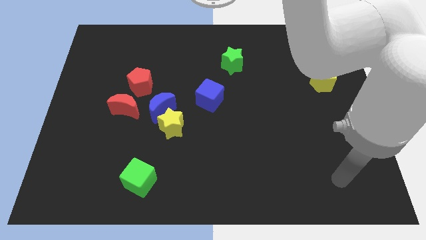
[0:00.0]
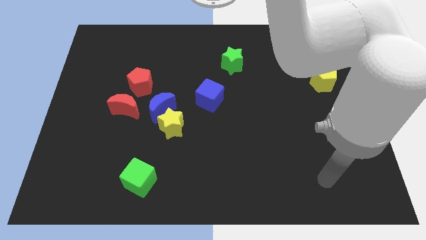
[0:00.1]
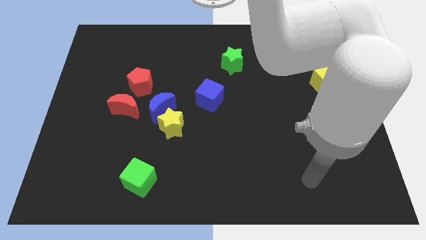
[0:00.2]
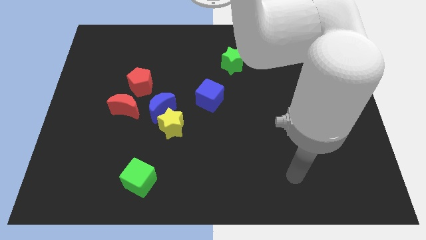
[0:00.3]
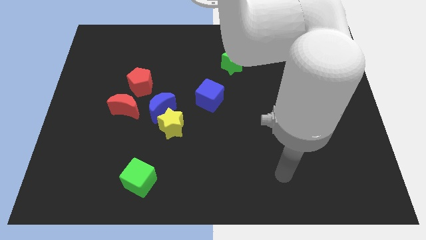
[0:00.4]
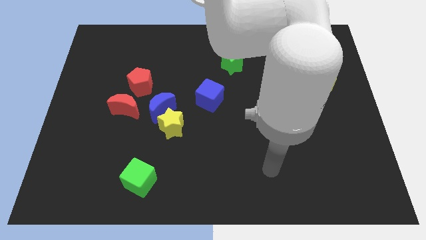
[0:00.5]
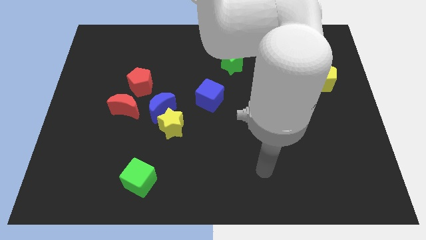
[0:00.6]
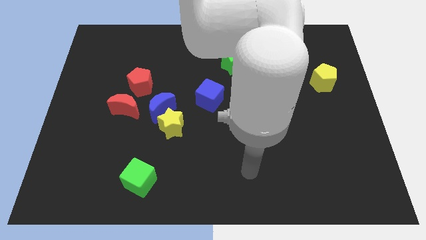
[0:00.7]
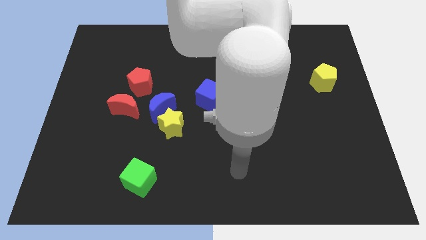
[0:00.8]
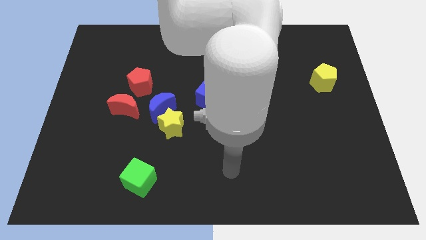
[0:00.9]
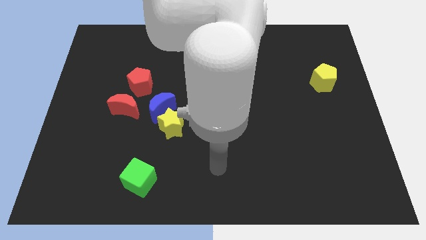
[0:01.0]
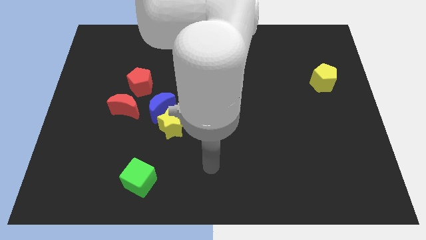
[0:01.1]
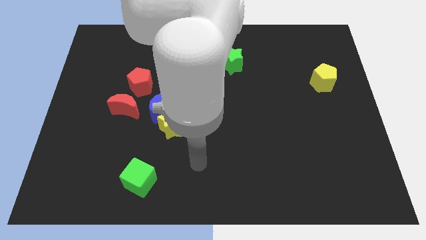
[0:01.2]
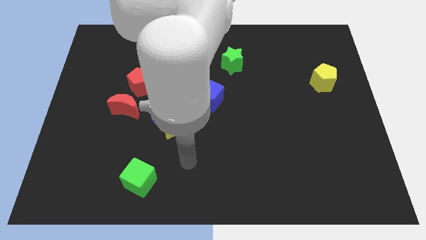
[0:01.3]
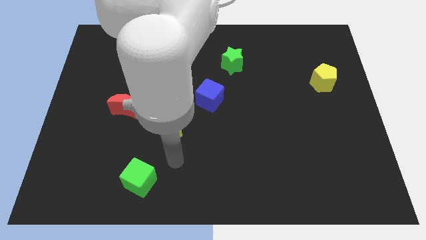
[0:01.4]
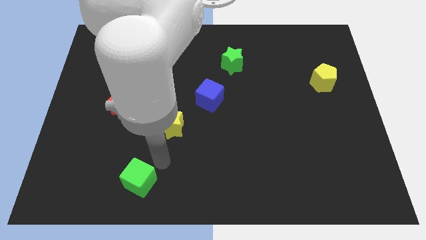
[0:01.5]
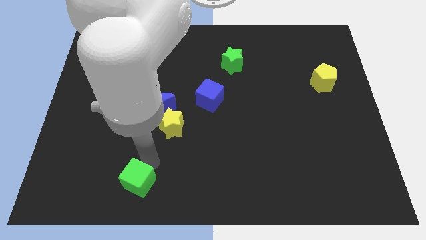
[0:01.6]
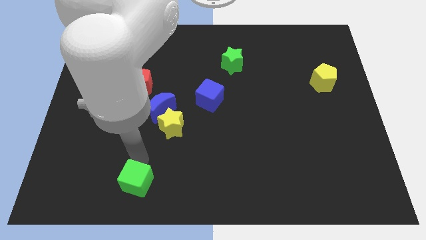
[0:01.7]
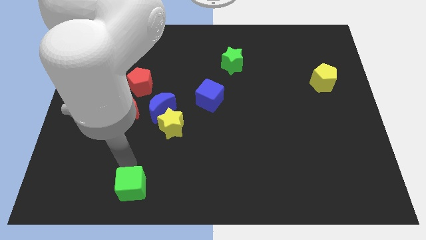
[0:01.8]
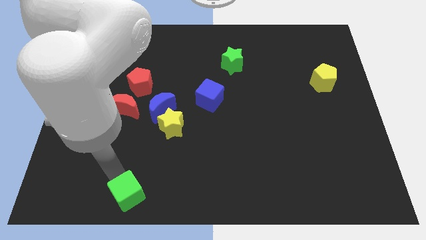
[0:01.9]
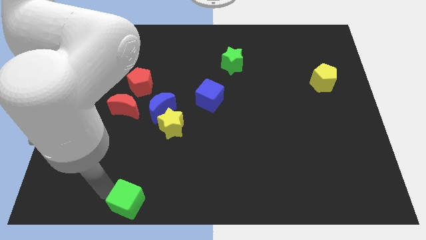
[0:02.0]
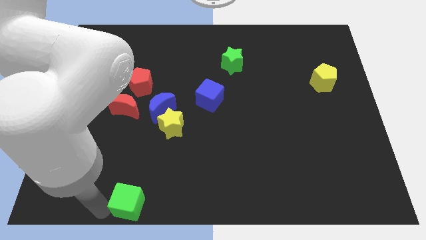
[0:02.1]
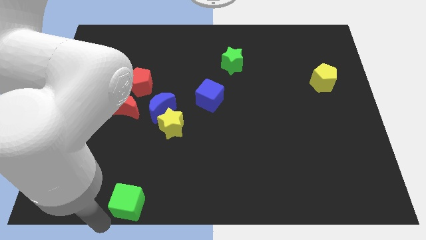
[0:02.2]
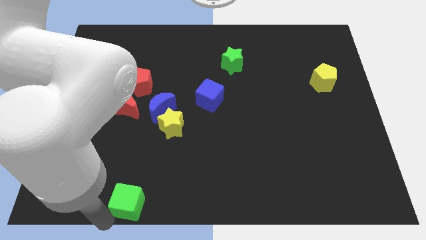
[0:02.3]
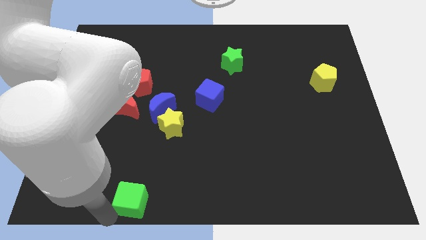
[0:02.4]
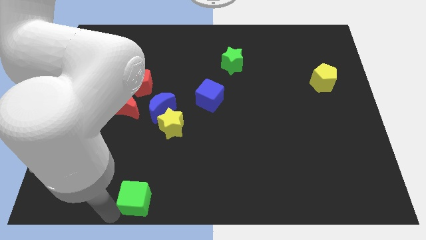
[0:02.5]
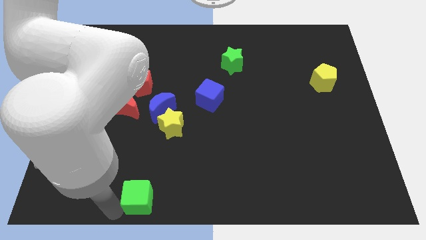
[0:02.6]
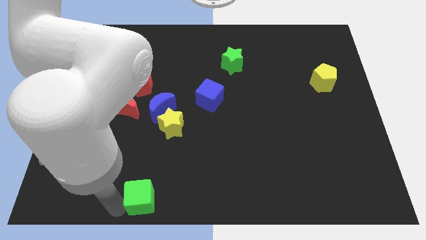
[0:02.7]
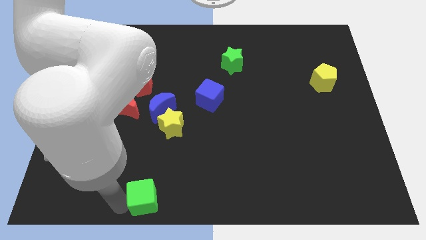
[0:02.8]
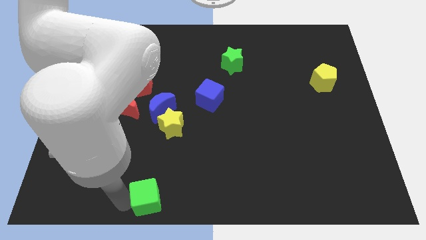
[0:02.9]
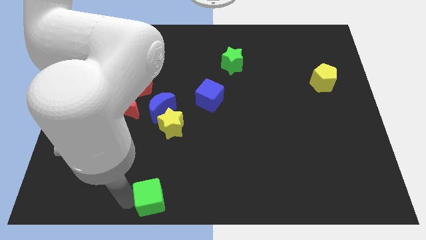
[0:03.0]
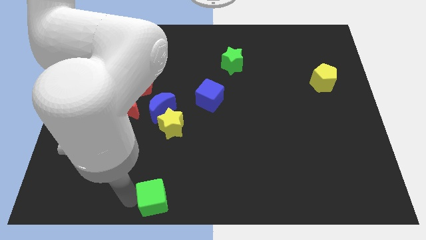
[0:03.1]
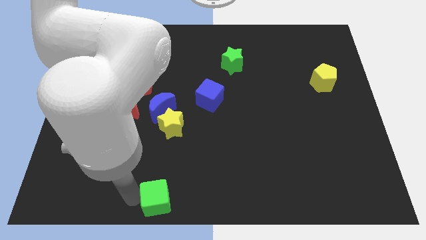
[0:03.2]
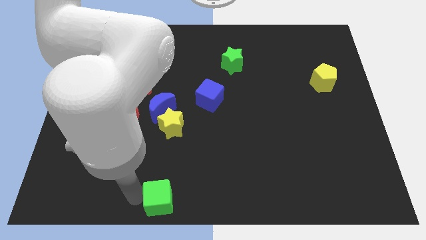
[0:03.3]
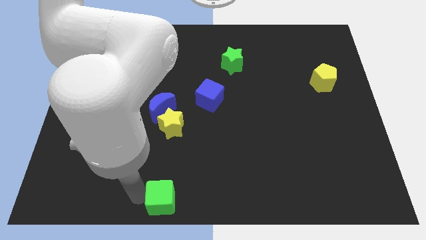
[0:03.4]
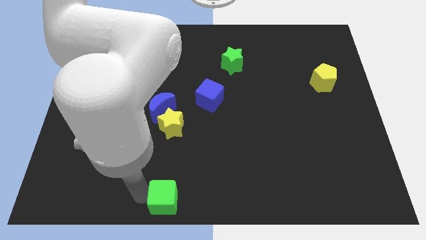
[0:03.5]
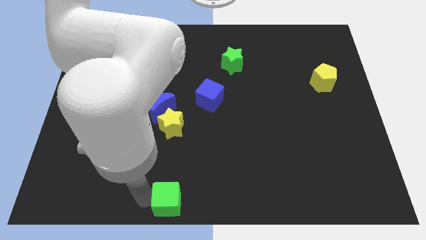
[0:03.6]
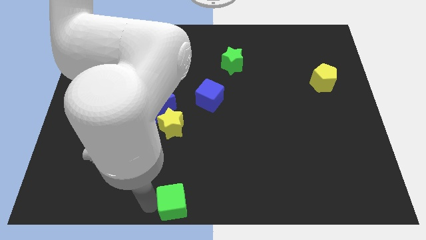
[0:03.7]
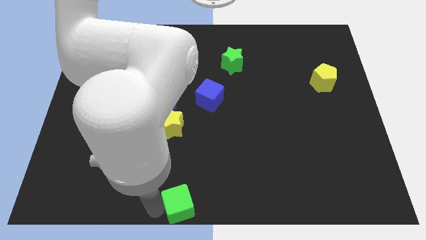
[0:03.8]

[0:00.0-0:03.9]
push the green cube right somewhat

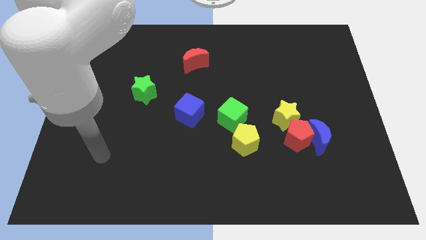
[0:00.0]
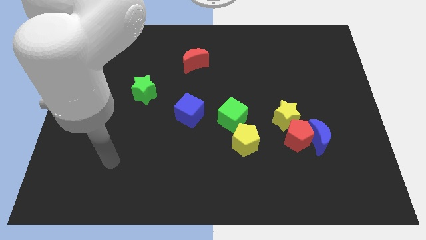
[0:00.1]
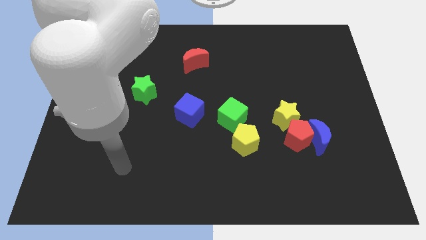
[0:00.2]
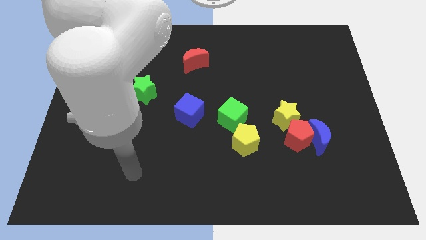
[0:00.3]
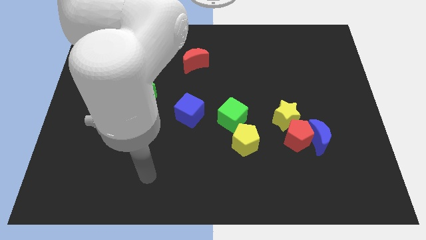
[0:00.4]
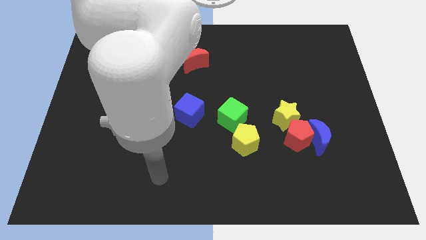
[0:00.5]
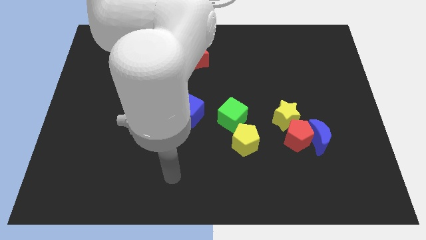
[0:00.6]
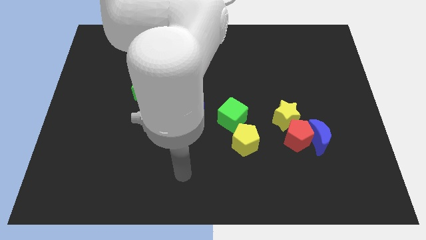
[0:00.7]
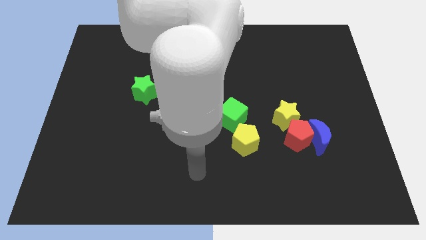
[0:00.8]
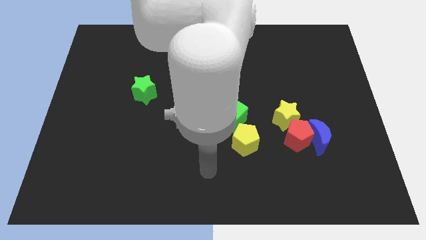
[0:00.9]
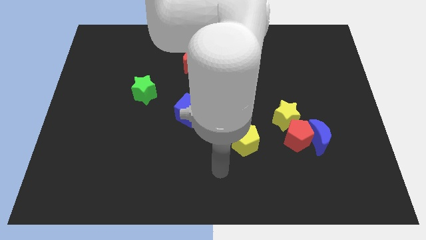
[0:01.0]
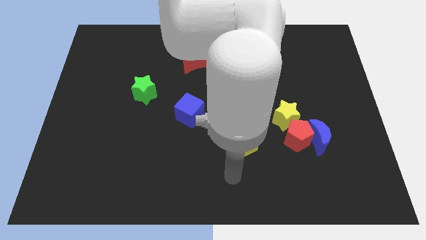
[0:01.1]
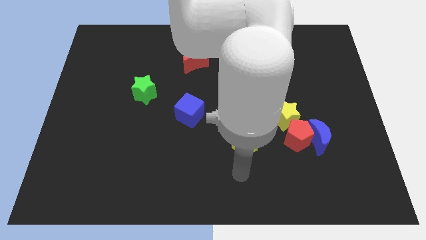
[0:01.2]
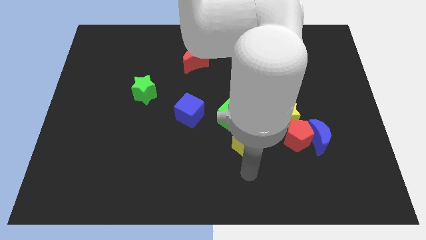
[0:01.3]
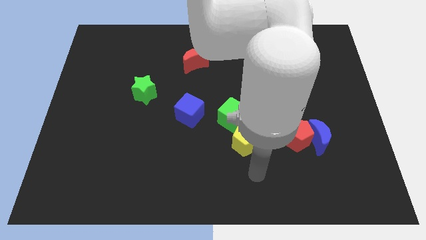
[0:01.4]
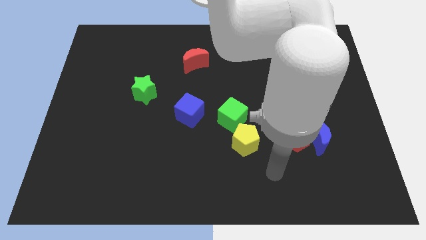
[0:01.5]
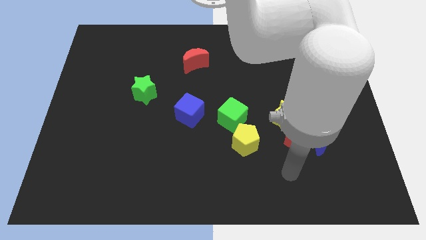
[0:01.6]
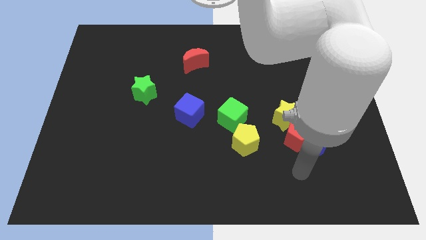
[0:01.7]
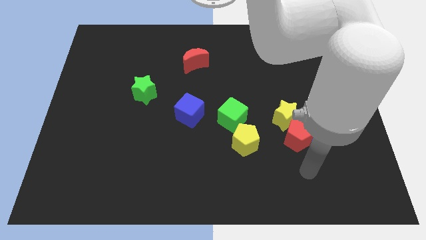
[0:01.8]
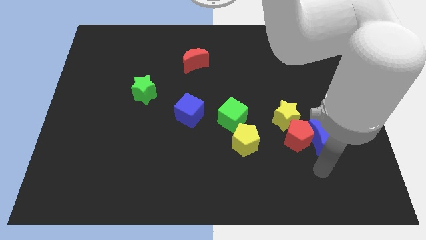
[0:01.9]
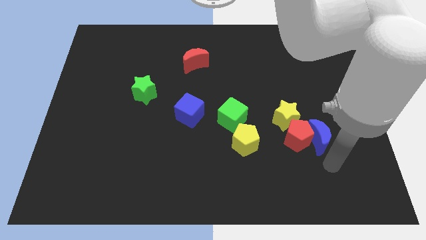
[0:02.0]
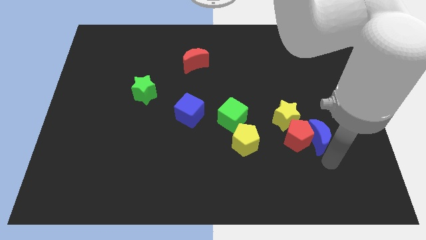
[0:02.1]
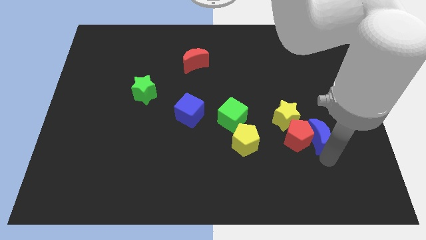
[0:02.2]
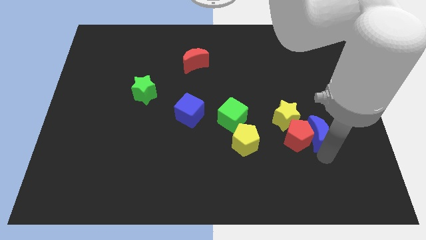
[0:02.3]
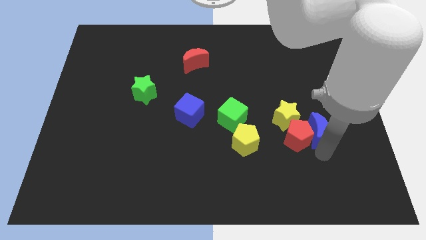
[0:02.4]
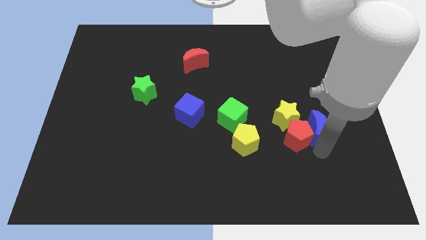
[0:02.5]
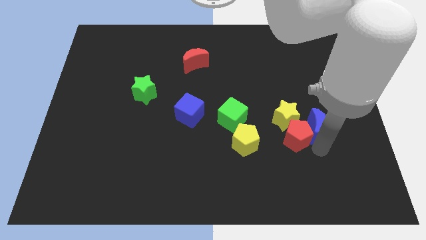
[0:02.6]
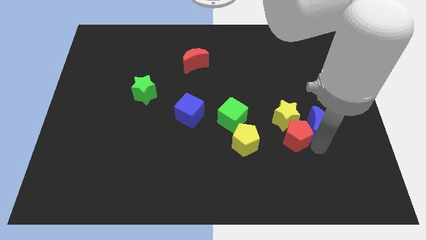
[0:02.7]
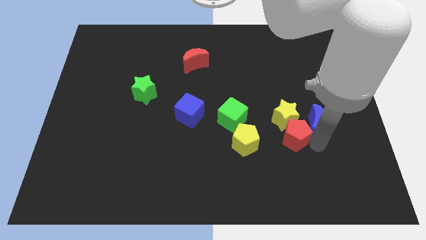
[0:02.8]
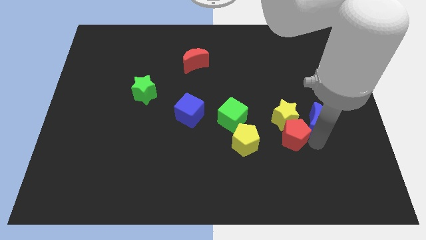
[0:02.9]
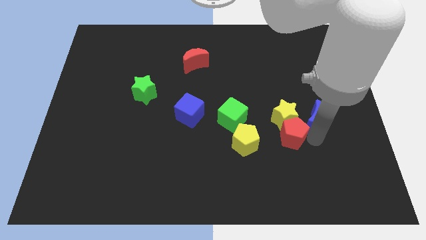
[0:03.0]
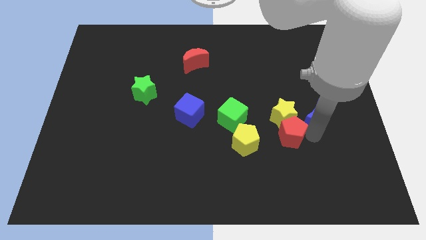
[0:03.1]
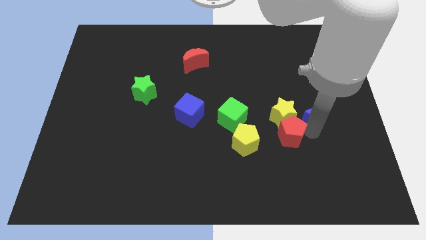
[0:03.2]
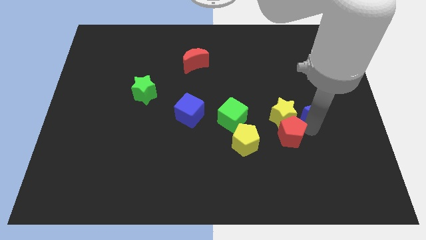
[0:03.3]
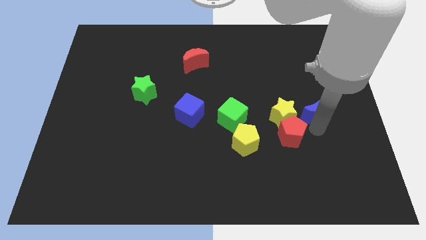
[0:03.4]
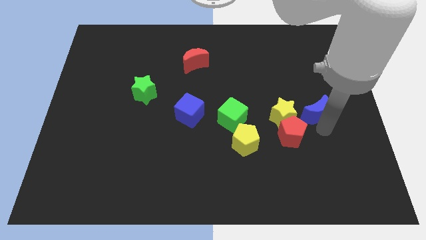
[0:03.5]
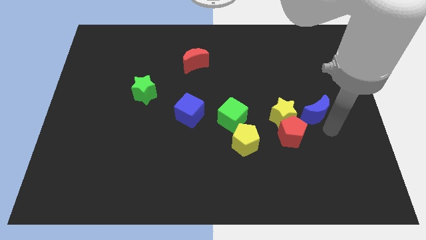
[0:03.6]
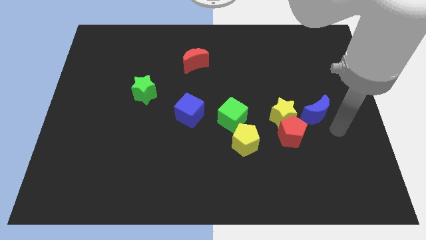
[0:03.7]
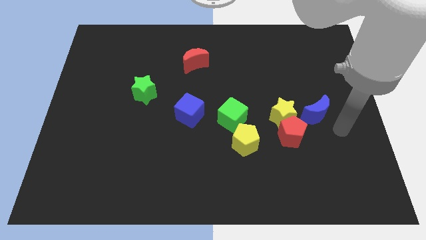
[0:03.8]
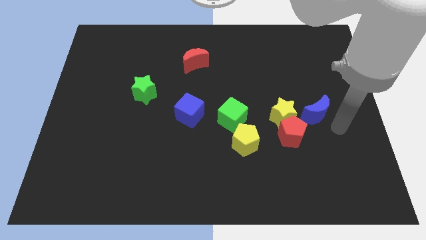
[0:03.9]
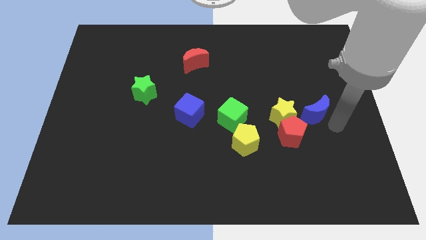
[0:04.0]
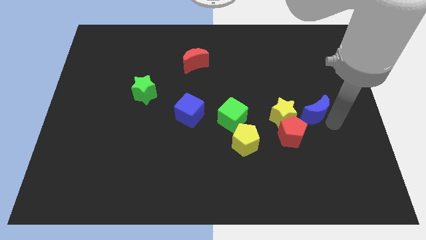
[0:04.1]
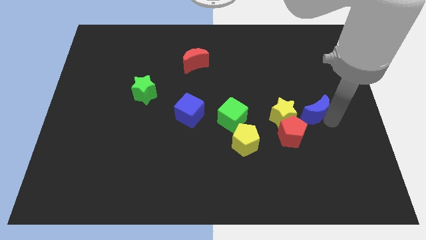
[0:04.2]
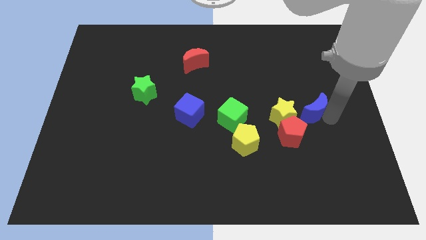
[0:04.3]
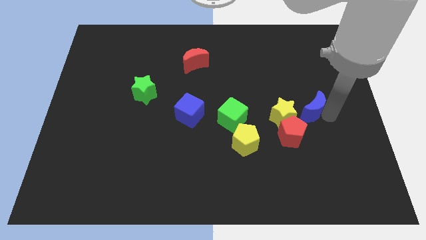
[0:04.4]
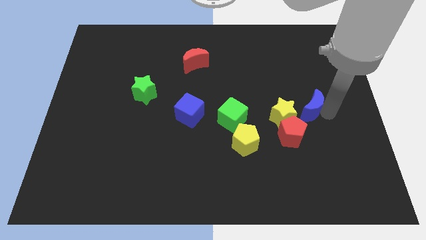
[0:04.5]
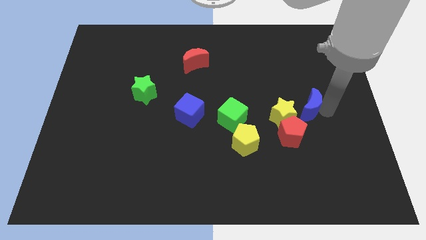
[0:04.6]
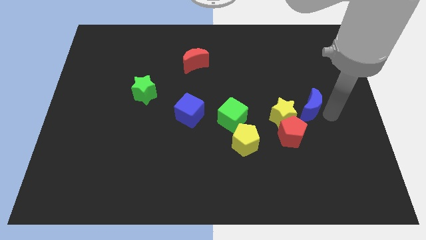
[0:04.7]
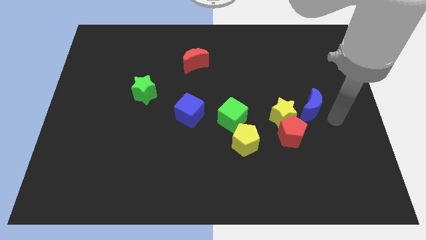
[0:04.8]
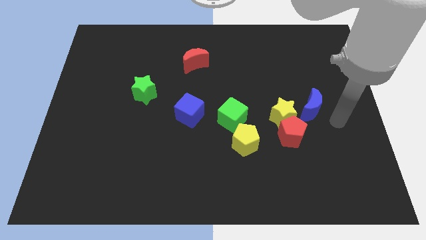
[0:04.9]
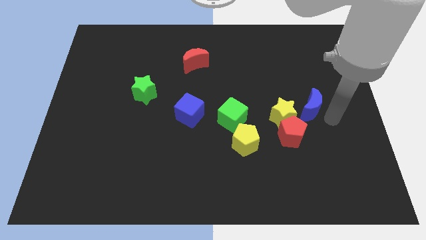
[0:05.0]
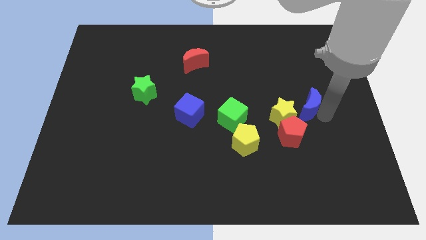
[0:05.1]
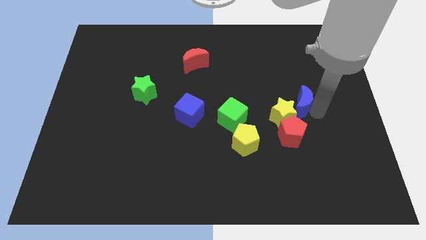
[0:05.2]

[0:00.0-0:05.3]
slide the blue moon somewhat up and to the left
